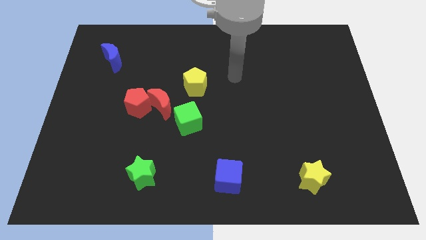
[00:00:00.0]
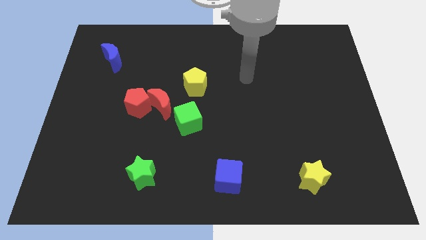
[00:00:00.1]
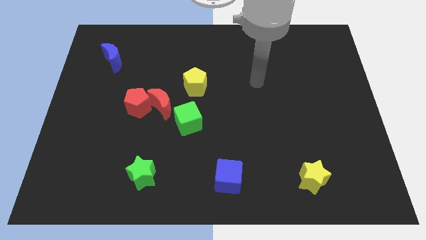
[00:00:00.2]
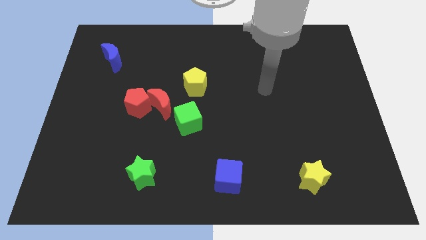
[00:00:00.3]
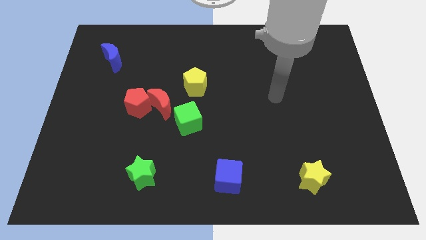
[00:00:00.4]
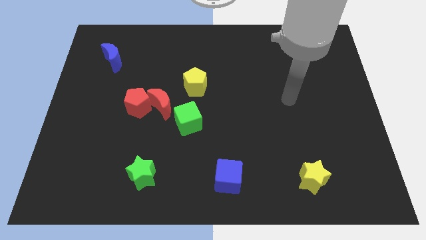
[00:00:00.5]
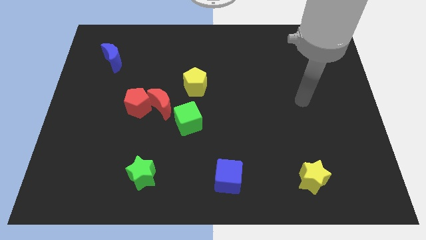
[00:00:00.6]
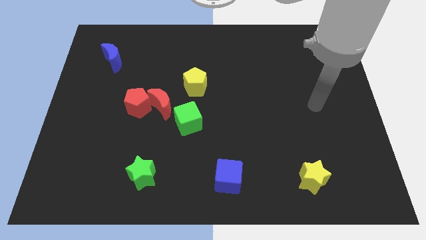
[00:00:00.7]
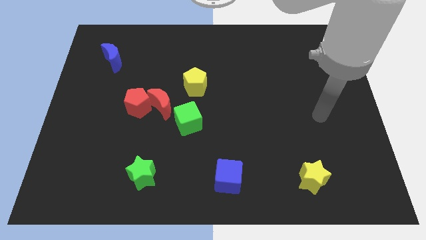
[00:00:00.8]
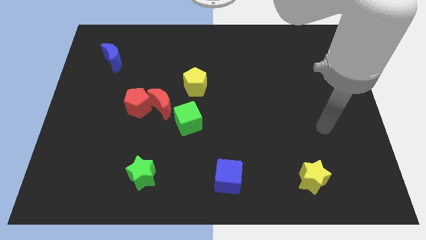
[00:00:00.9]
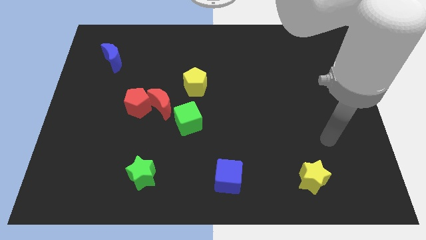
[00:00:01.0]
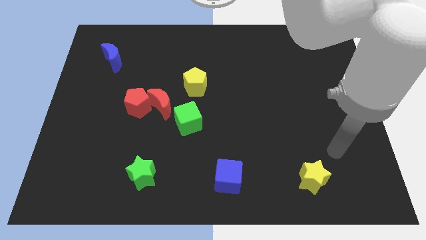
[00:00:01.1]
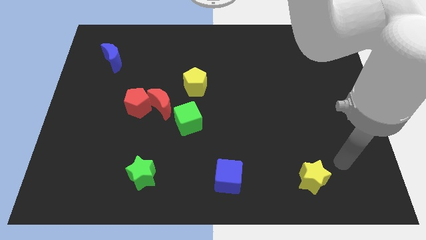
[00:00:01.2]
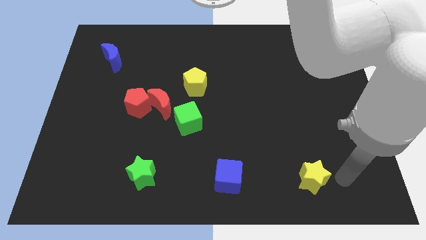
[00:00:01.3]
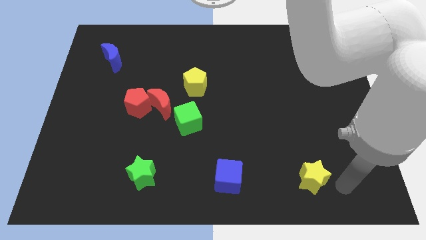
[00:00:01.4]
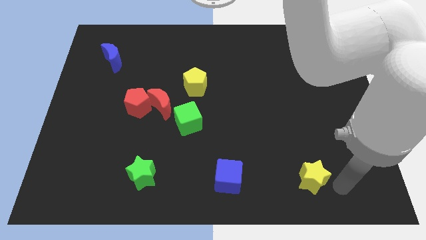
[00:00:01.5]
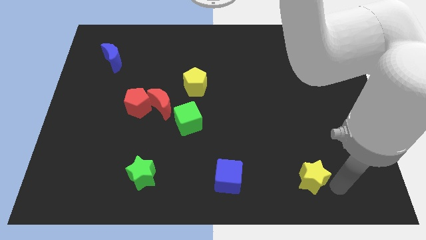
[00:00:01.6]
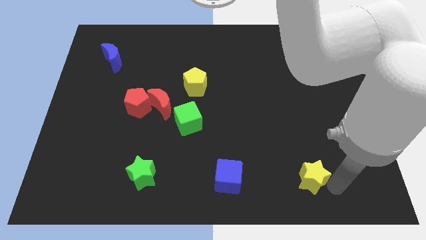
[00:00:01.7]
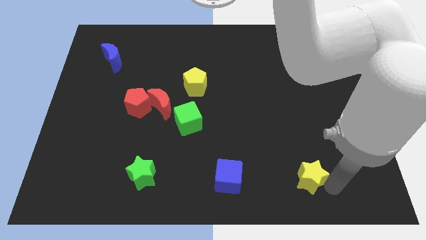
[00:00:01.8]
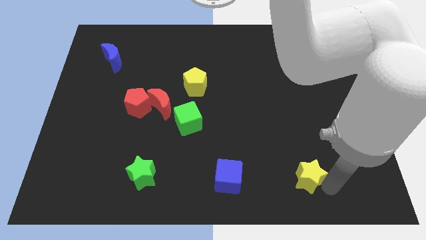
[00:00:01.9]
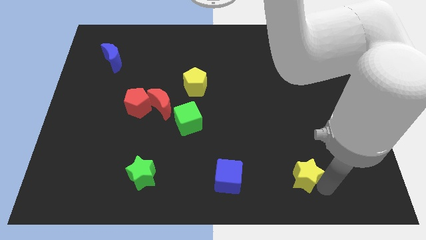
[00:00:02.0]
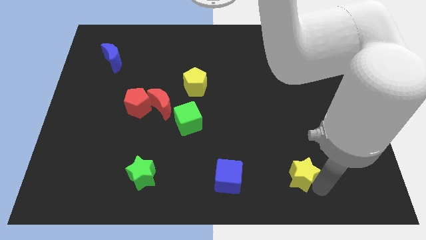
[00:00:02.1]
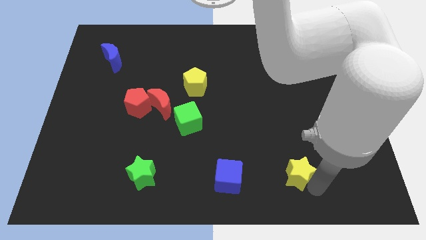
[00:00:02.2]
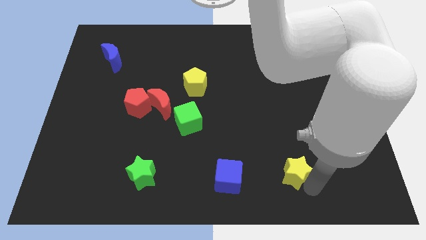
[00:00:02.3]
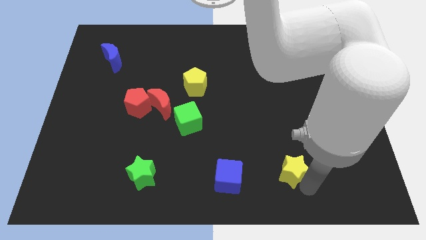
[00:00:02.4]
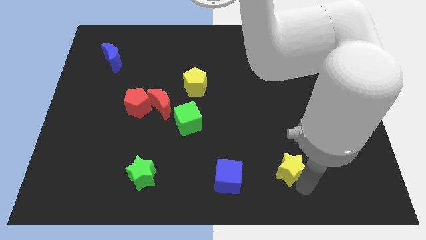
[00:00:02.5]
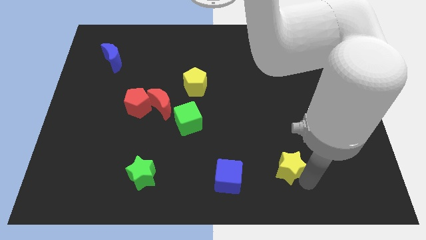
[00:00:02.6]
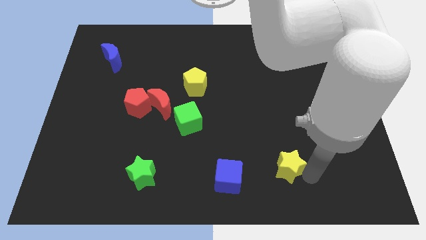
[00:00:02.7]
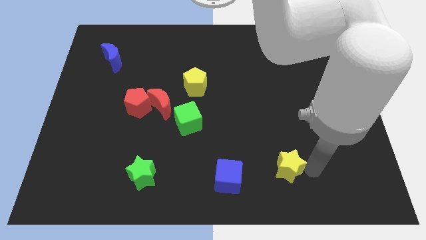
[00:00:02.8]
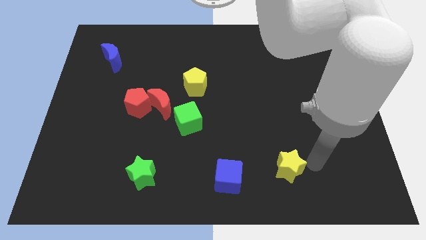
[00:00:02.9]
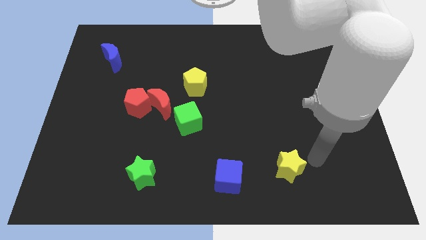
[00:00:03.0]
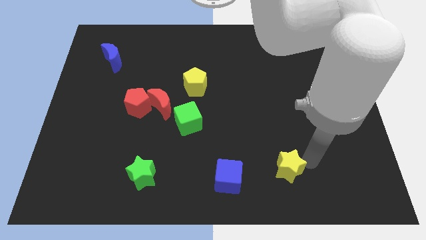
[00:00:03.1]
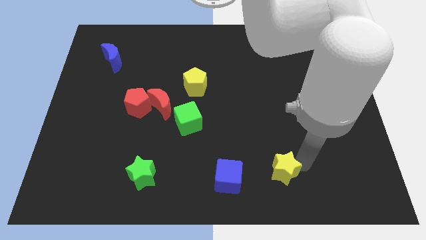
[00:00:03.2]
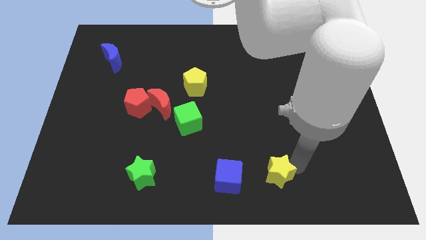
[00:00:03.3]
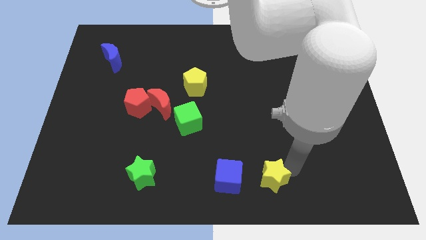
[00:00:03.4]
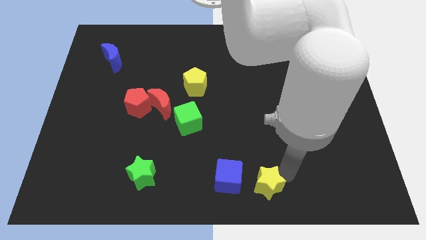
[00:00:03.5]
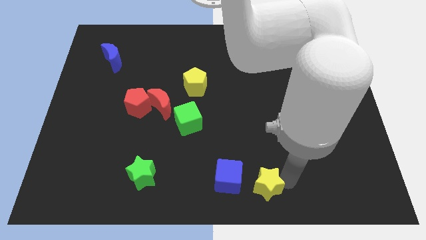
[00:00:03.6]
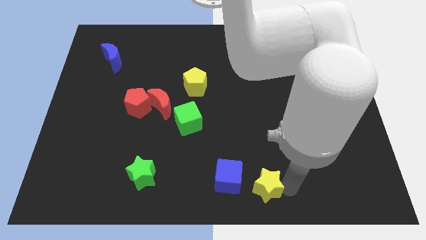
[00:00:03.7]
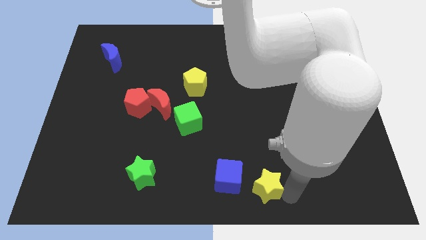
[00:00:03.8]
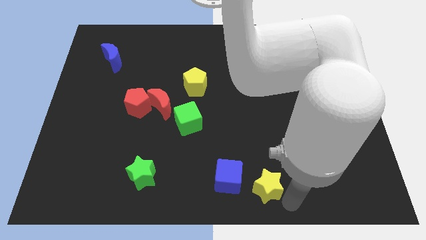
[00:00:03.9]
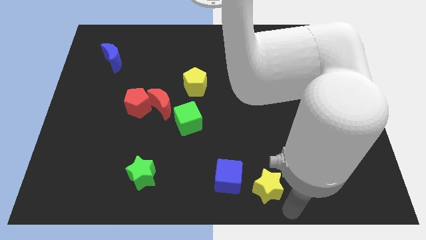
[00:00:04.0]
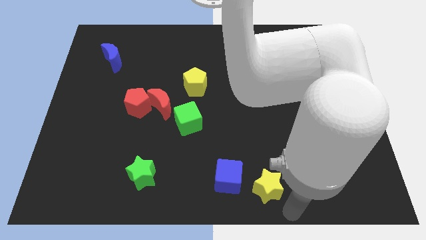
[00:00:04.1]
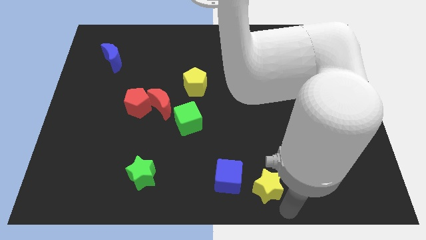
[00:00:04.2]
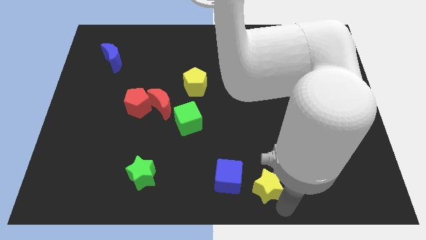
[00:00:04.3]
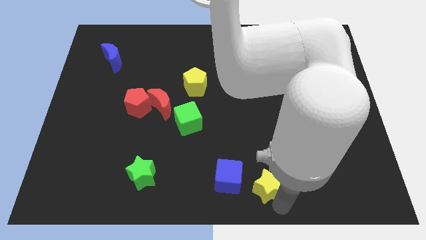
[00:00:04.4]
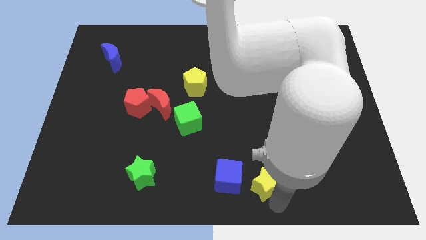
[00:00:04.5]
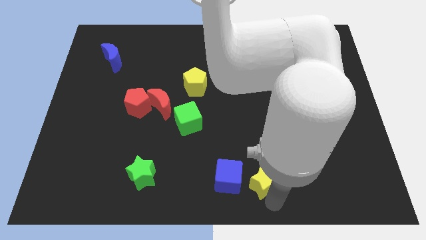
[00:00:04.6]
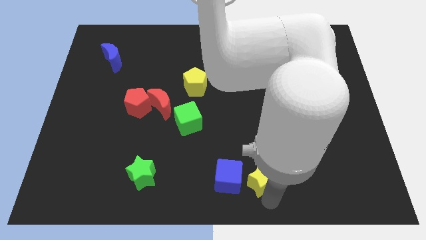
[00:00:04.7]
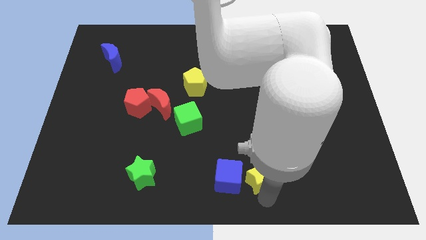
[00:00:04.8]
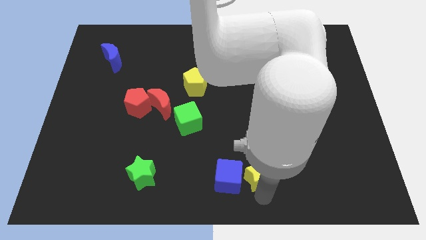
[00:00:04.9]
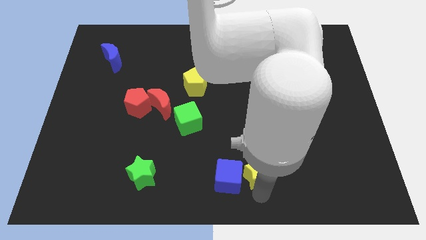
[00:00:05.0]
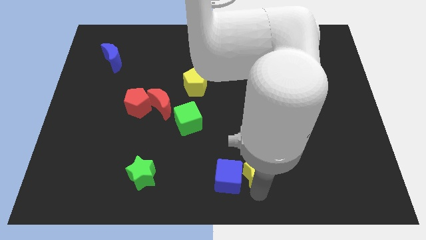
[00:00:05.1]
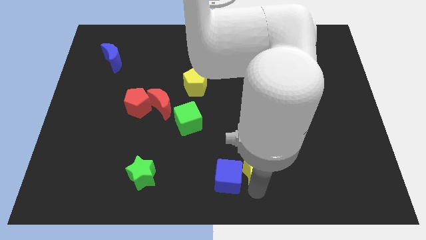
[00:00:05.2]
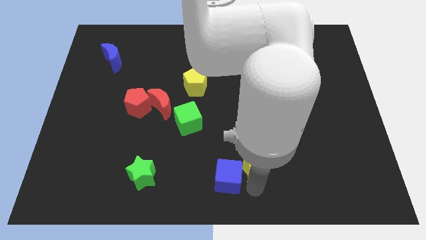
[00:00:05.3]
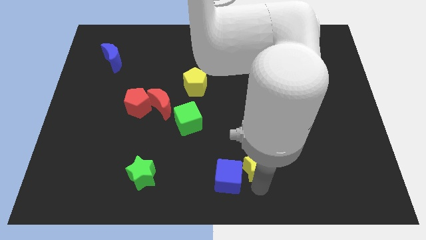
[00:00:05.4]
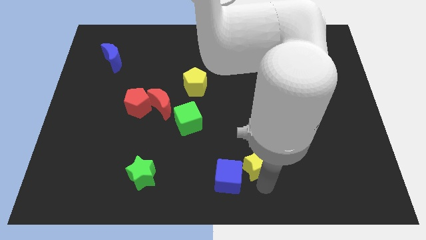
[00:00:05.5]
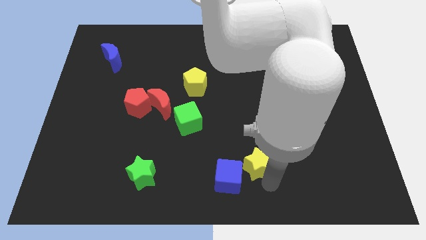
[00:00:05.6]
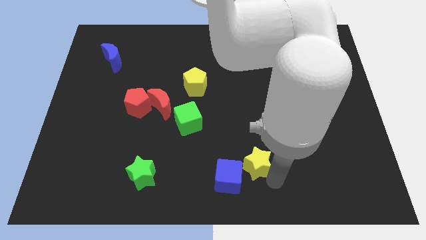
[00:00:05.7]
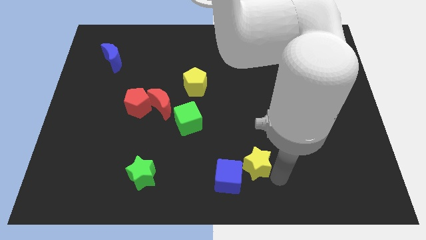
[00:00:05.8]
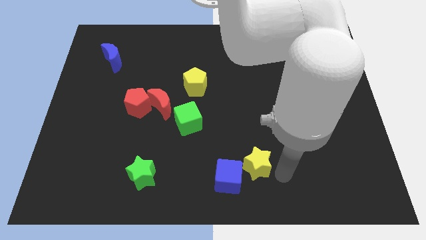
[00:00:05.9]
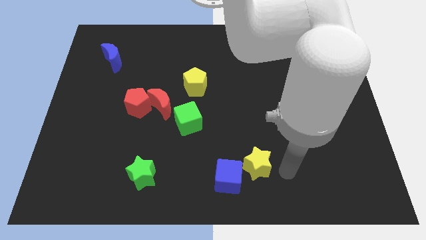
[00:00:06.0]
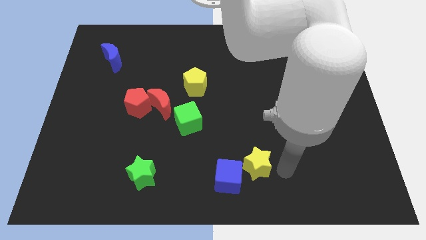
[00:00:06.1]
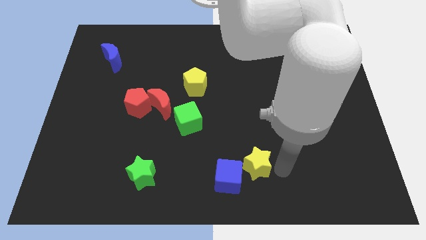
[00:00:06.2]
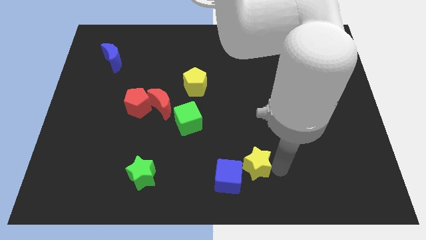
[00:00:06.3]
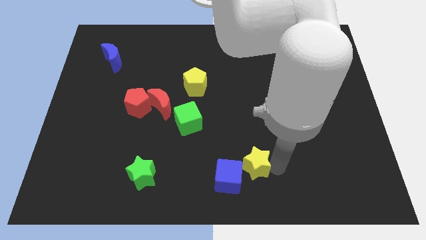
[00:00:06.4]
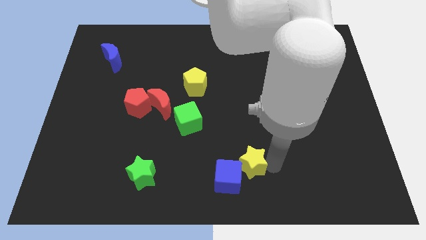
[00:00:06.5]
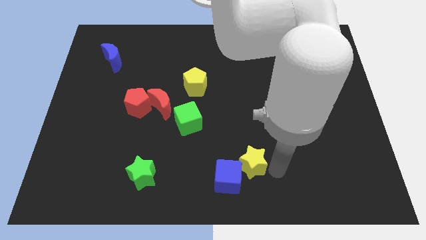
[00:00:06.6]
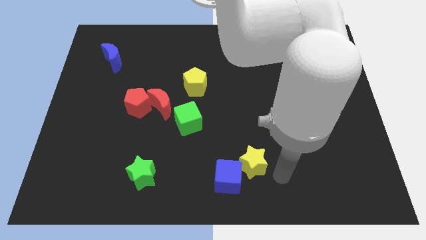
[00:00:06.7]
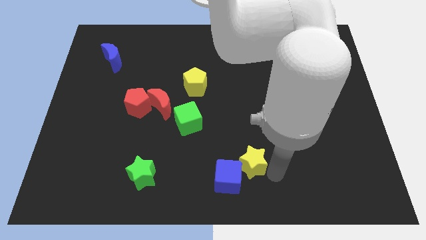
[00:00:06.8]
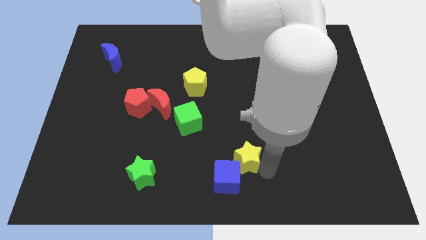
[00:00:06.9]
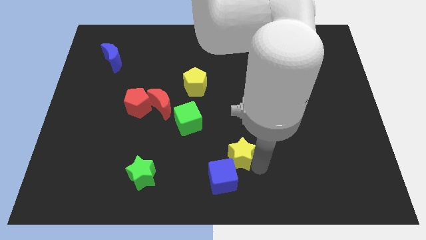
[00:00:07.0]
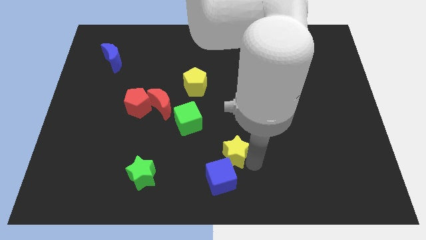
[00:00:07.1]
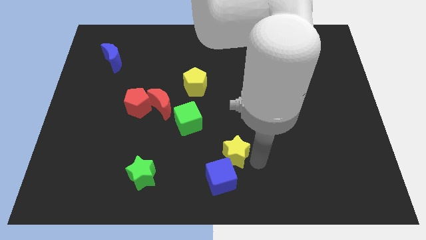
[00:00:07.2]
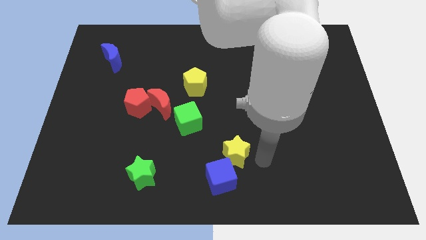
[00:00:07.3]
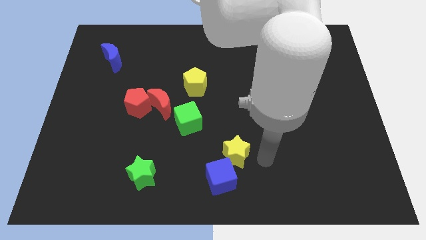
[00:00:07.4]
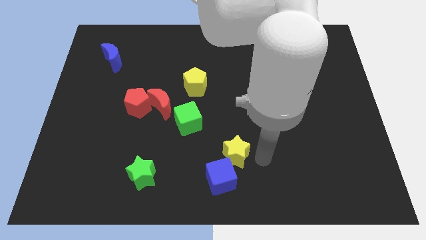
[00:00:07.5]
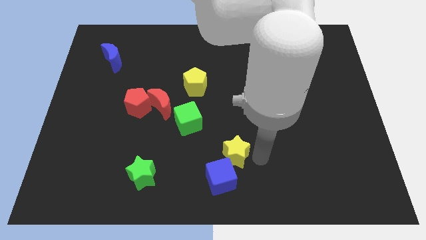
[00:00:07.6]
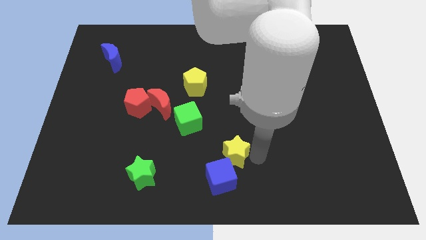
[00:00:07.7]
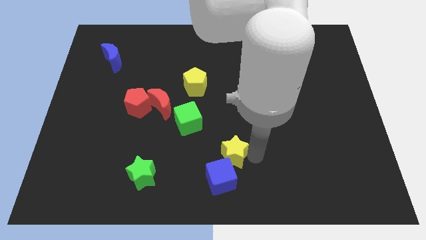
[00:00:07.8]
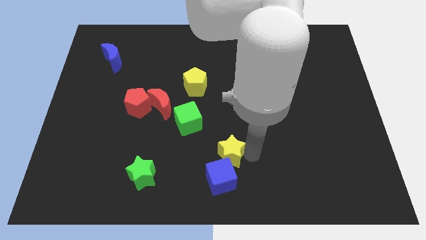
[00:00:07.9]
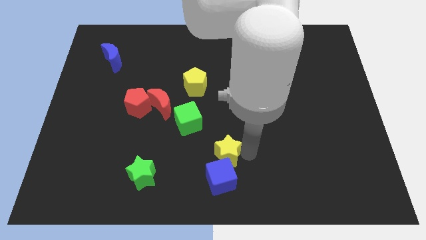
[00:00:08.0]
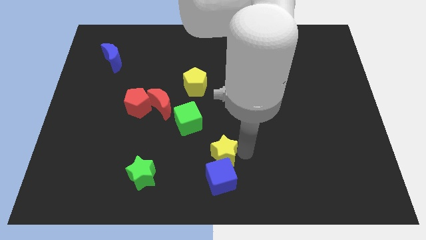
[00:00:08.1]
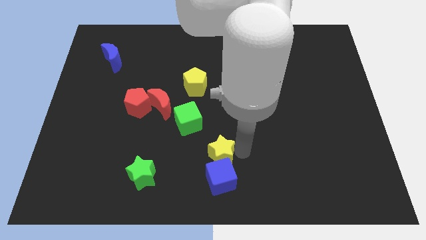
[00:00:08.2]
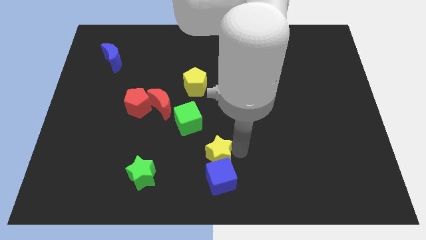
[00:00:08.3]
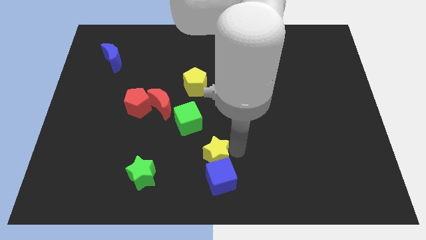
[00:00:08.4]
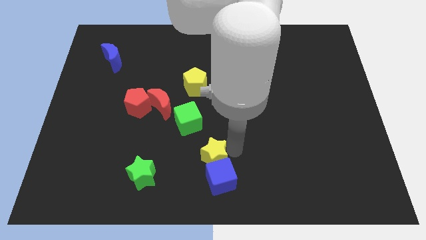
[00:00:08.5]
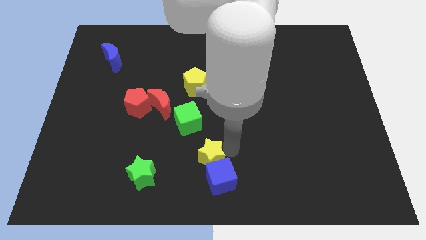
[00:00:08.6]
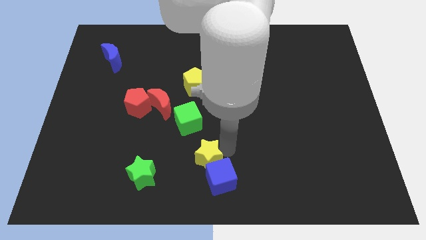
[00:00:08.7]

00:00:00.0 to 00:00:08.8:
slide the yellow star to the bottom side of the green cube

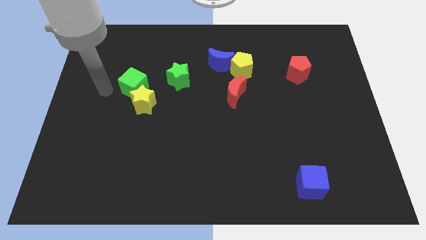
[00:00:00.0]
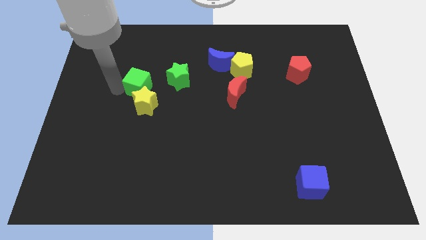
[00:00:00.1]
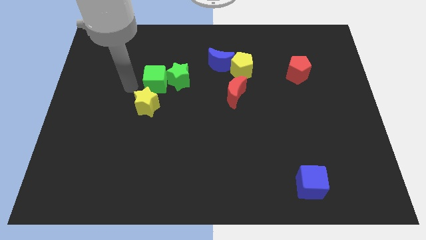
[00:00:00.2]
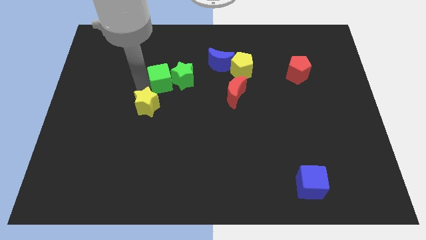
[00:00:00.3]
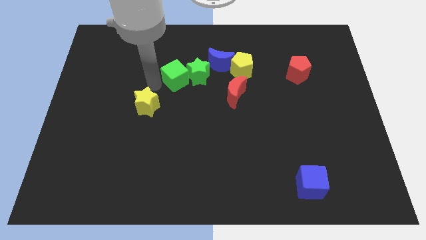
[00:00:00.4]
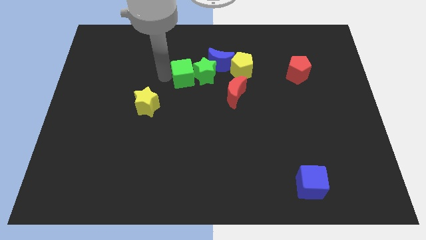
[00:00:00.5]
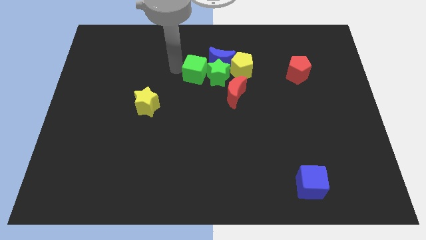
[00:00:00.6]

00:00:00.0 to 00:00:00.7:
slide the green star diagonally down and to the left of the yellow pentagon
